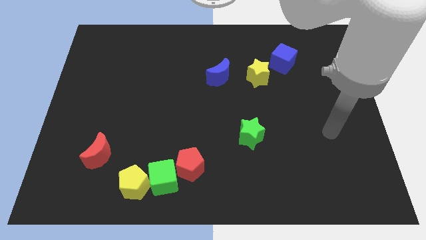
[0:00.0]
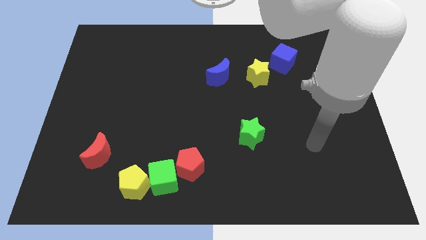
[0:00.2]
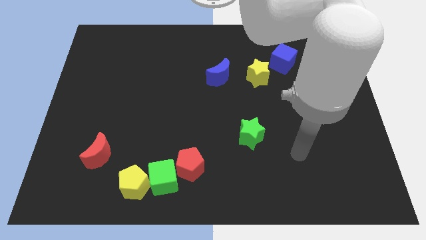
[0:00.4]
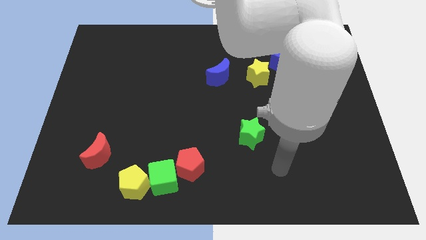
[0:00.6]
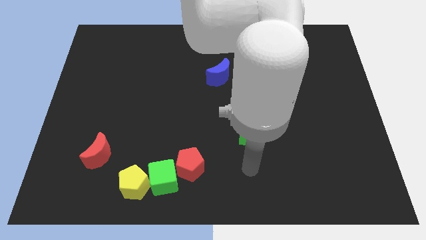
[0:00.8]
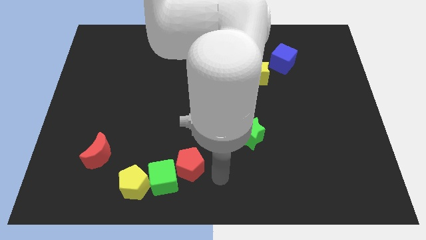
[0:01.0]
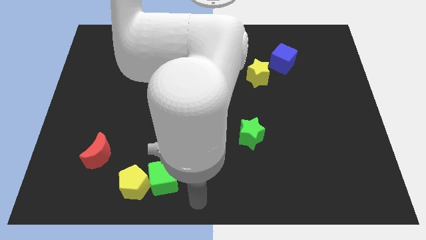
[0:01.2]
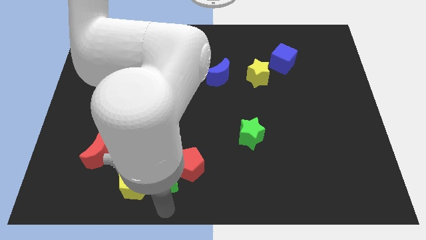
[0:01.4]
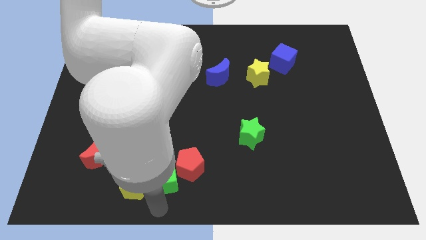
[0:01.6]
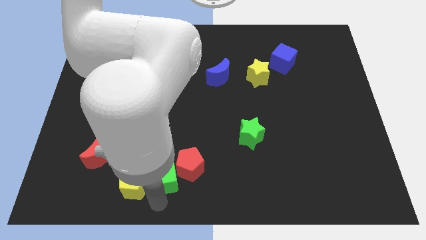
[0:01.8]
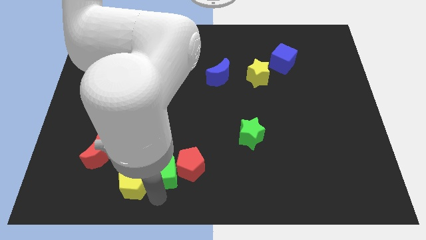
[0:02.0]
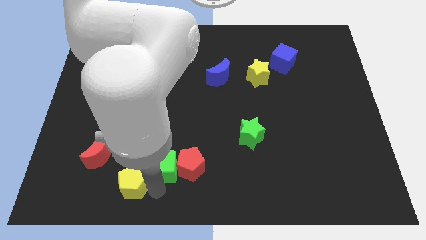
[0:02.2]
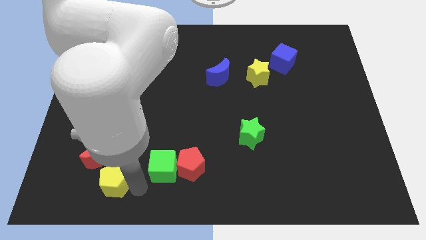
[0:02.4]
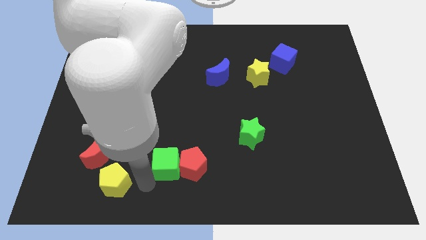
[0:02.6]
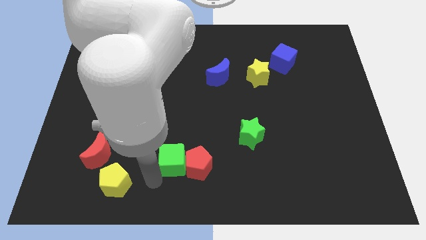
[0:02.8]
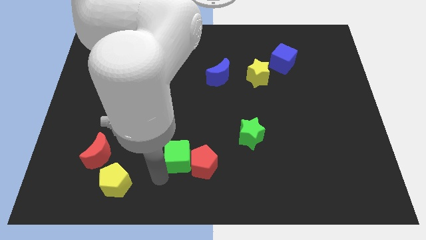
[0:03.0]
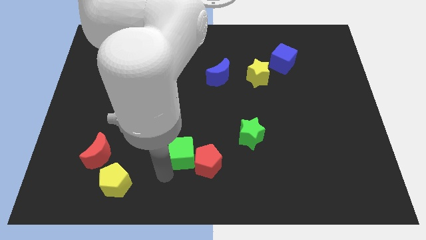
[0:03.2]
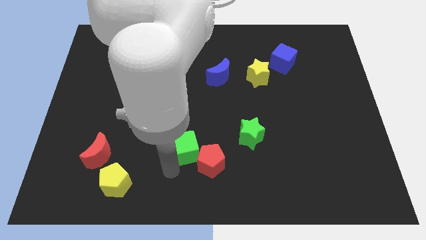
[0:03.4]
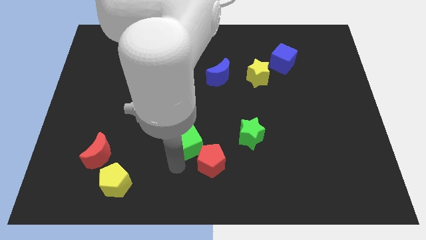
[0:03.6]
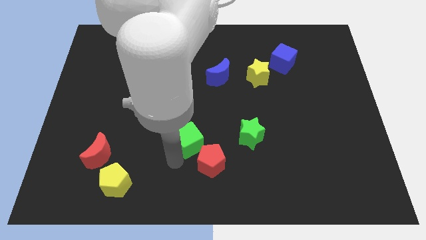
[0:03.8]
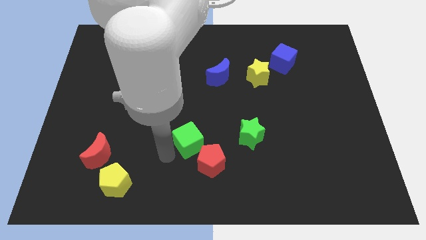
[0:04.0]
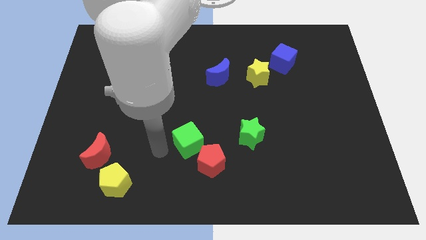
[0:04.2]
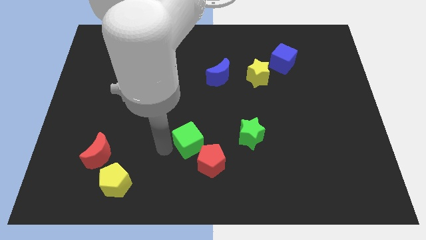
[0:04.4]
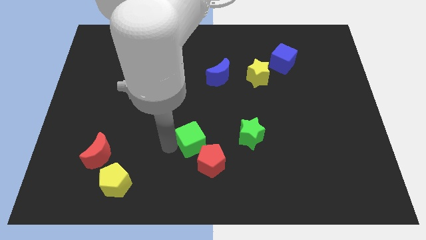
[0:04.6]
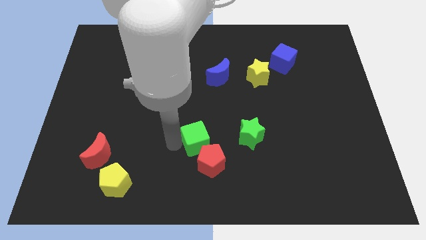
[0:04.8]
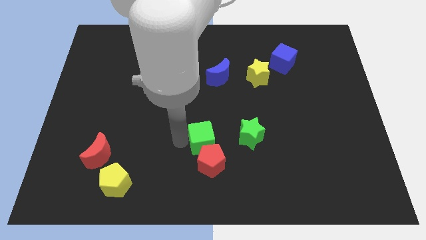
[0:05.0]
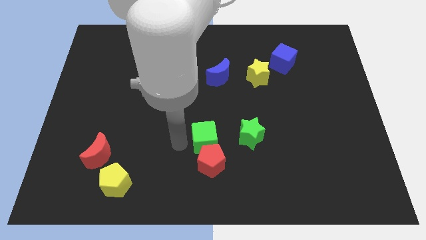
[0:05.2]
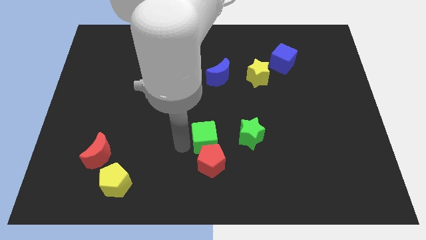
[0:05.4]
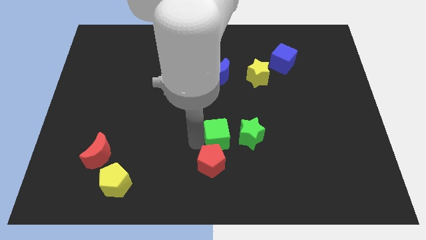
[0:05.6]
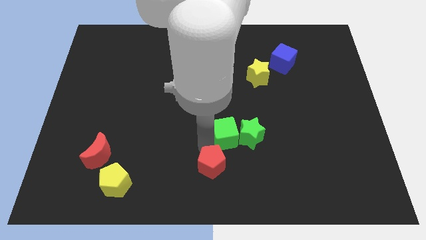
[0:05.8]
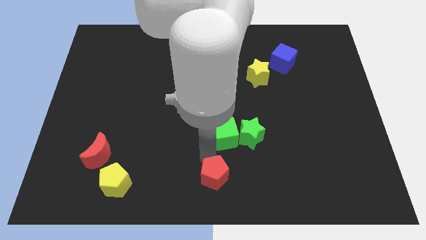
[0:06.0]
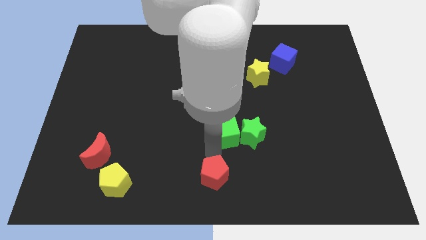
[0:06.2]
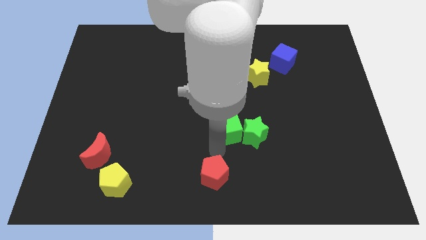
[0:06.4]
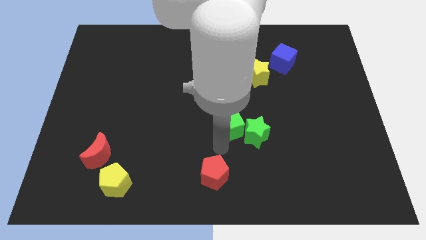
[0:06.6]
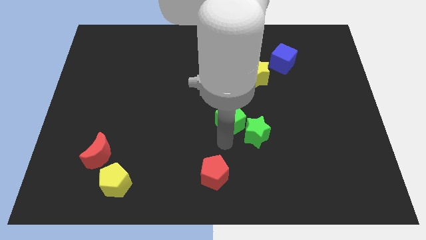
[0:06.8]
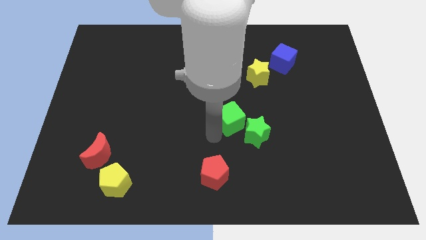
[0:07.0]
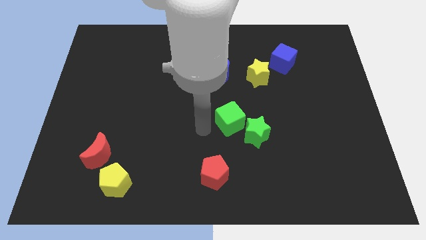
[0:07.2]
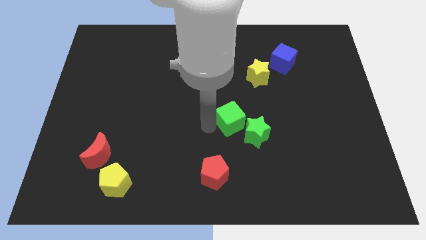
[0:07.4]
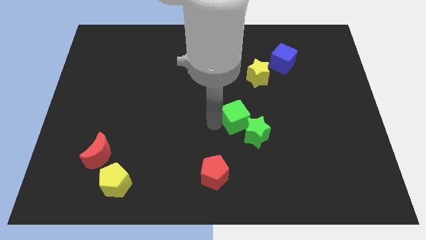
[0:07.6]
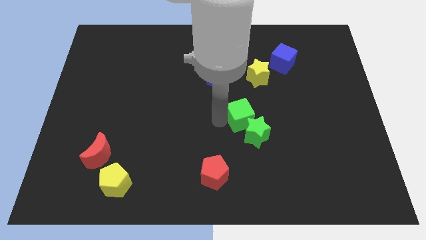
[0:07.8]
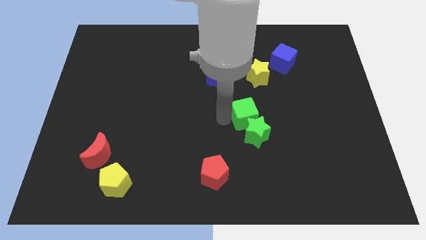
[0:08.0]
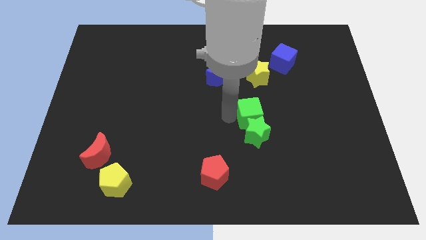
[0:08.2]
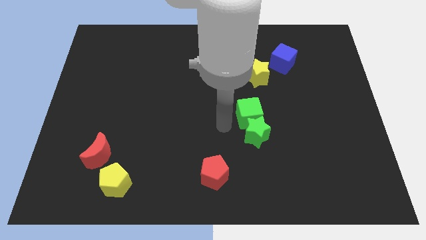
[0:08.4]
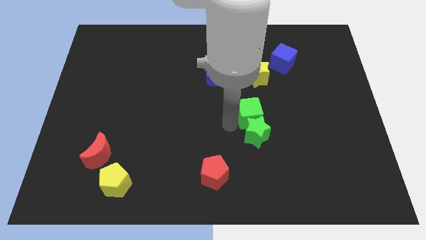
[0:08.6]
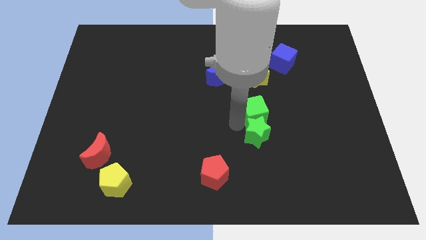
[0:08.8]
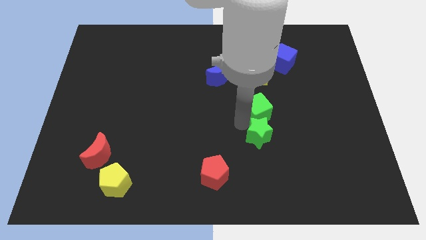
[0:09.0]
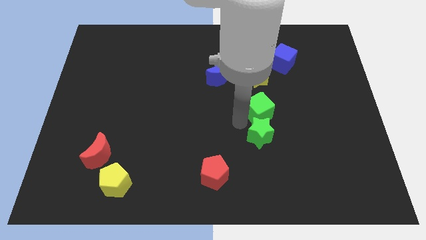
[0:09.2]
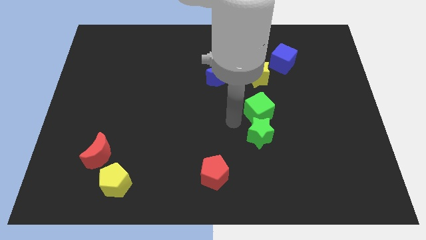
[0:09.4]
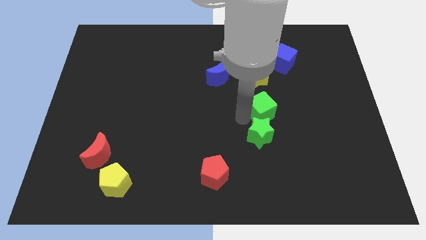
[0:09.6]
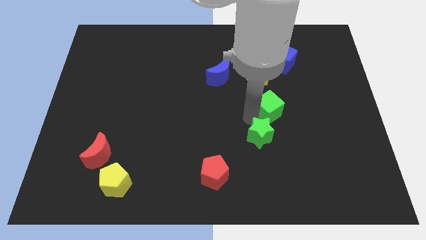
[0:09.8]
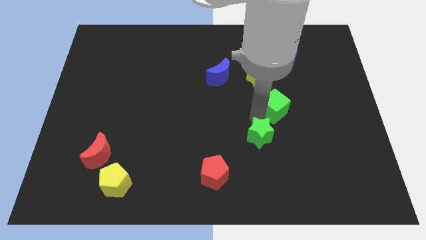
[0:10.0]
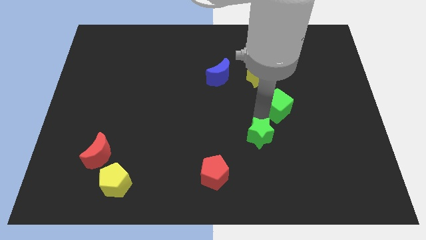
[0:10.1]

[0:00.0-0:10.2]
push the green cube diagonally down and to the right of the yellow star
